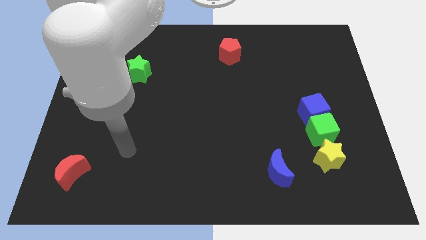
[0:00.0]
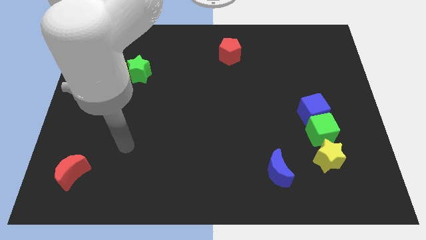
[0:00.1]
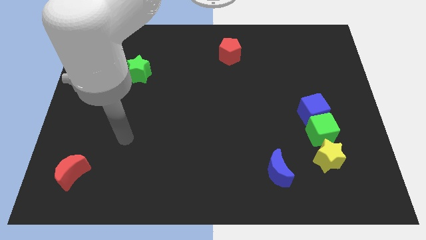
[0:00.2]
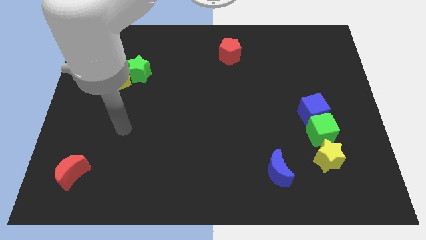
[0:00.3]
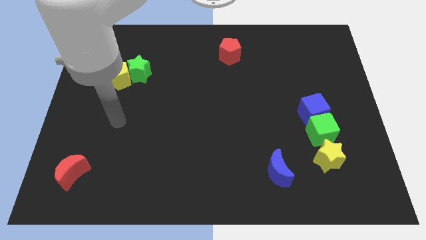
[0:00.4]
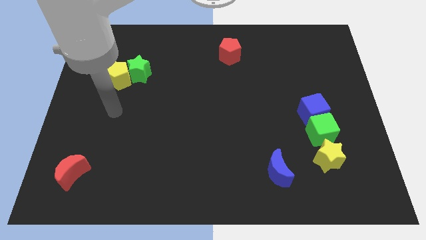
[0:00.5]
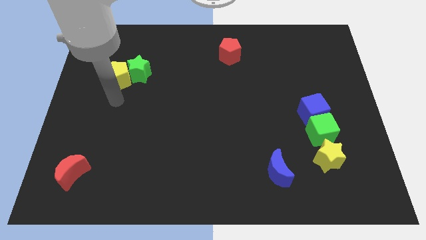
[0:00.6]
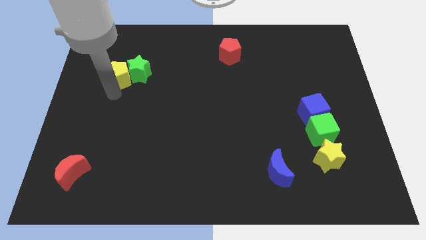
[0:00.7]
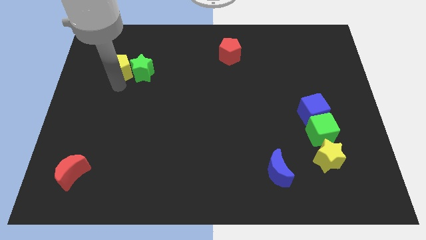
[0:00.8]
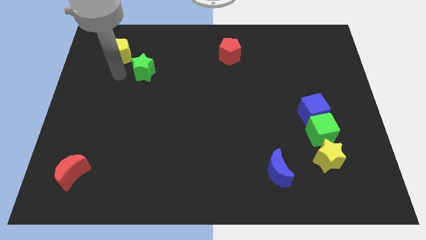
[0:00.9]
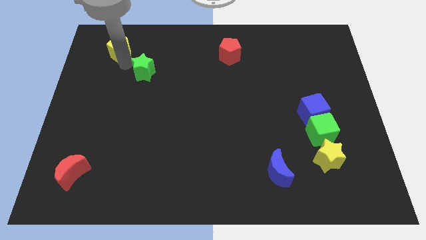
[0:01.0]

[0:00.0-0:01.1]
separate the green star from the yellow pentagon

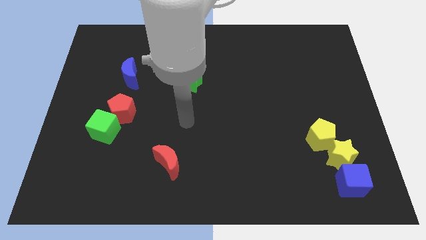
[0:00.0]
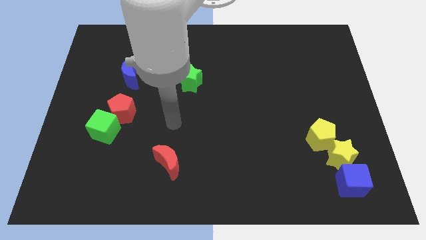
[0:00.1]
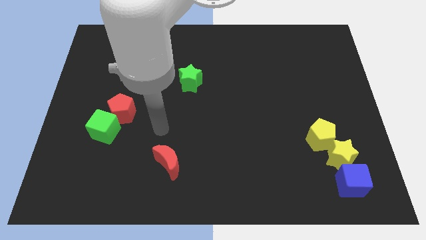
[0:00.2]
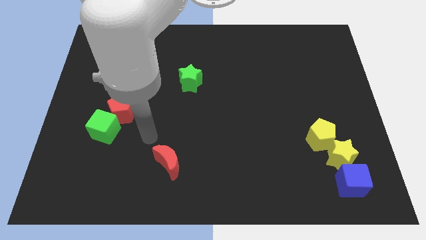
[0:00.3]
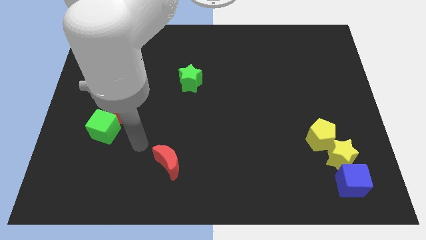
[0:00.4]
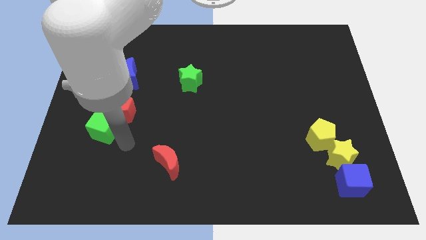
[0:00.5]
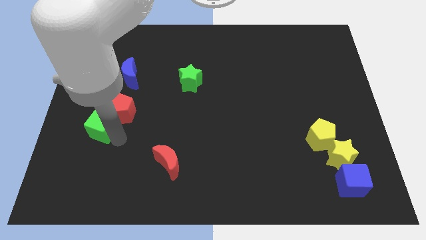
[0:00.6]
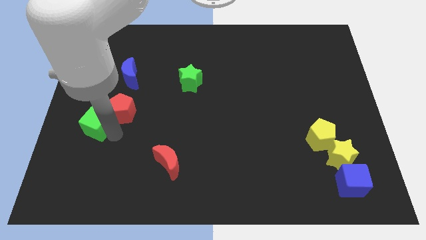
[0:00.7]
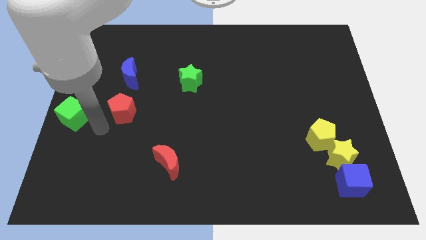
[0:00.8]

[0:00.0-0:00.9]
separate the red pentagon from the green cube

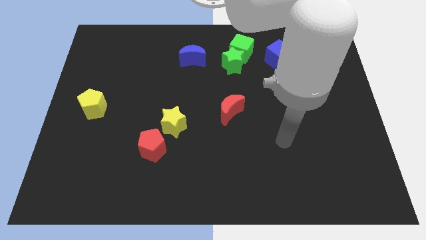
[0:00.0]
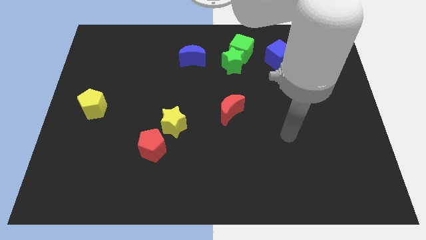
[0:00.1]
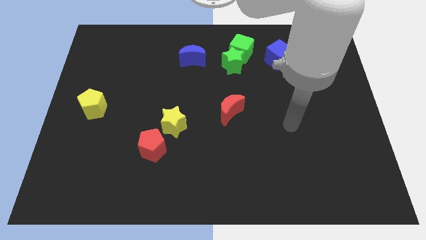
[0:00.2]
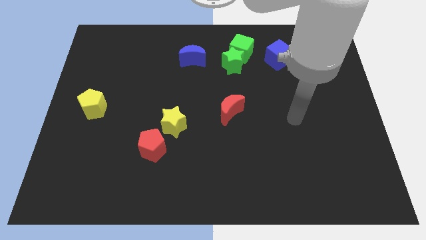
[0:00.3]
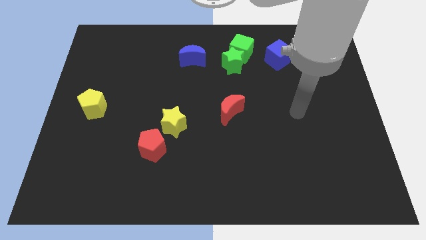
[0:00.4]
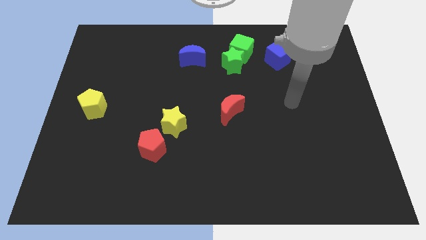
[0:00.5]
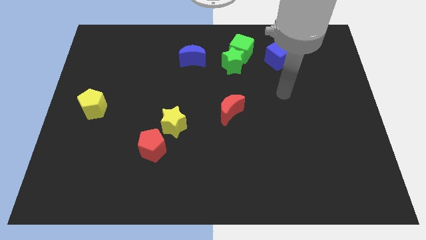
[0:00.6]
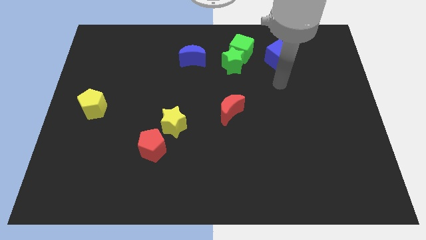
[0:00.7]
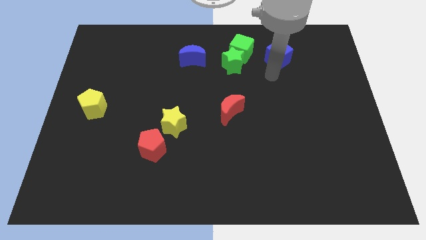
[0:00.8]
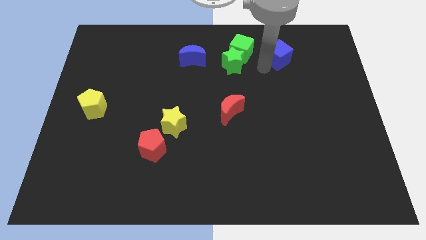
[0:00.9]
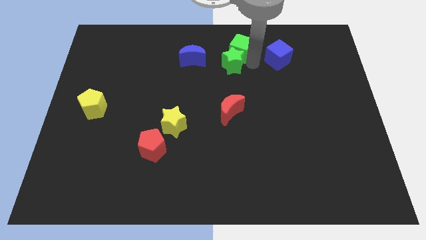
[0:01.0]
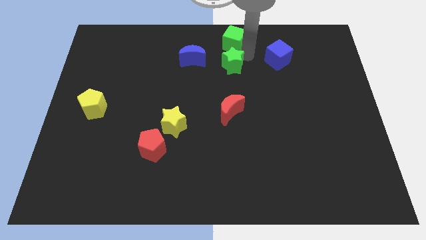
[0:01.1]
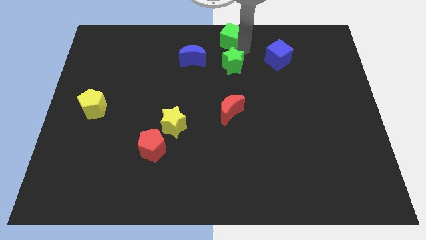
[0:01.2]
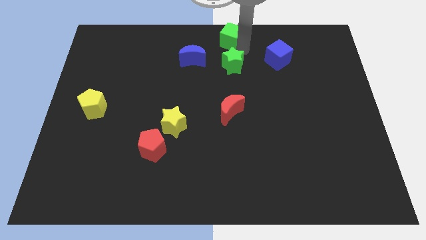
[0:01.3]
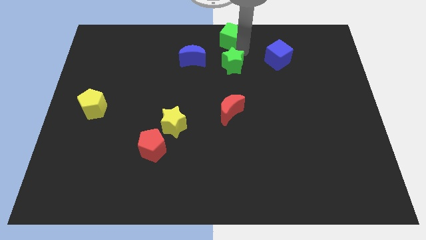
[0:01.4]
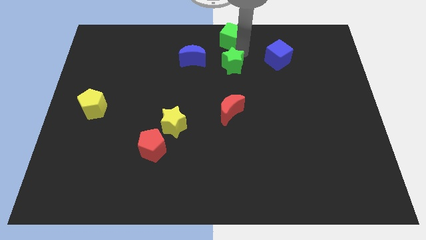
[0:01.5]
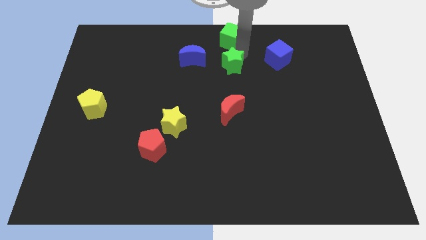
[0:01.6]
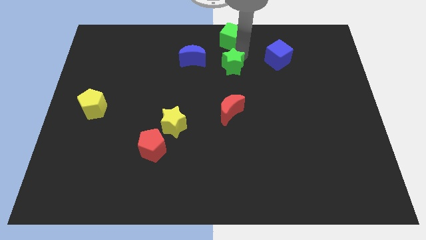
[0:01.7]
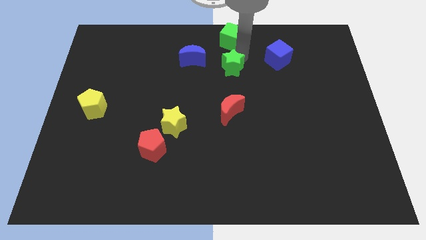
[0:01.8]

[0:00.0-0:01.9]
separate the green star from the green cube

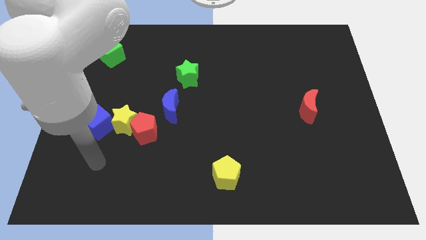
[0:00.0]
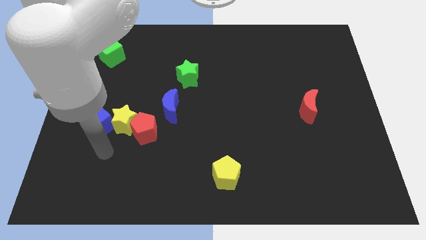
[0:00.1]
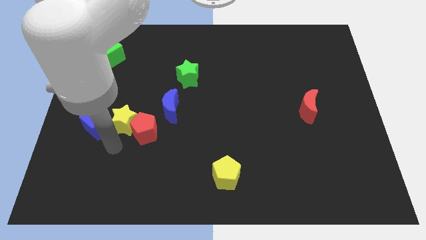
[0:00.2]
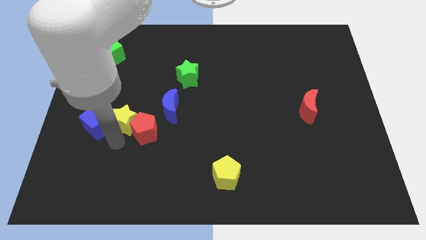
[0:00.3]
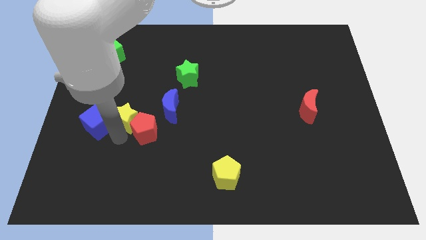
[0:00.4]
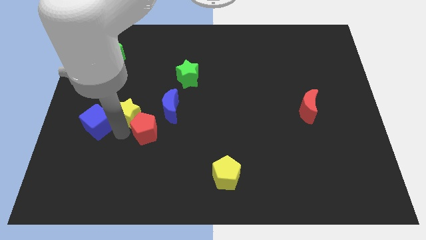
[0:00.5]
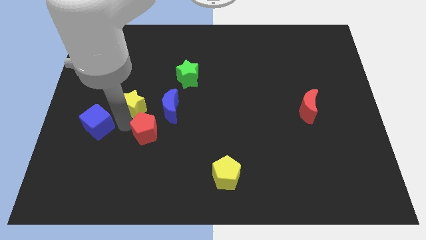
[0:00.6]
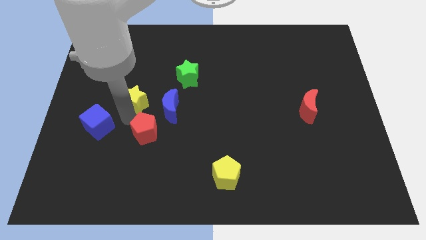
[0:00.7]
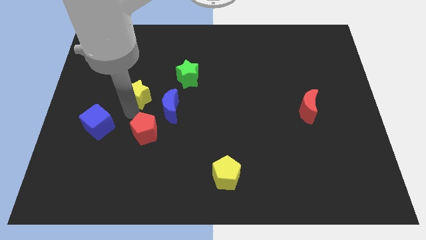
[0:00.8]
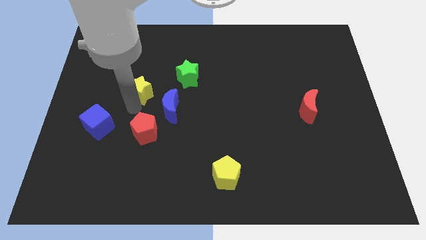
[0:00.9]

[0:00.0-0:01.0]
move the yellow star away from the red pentagon and blue cube

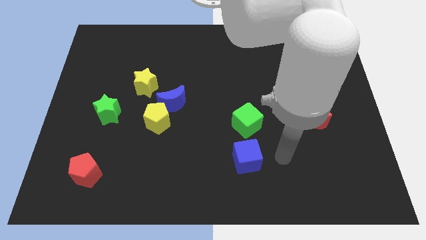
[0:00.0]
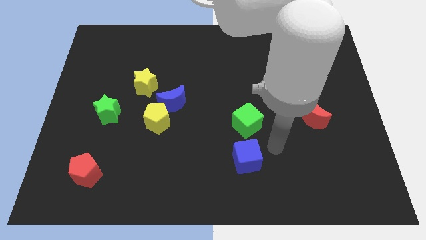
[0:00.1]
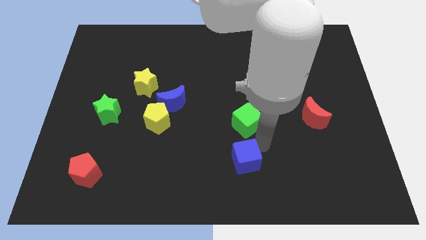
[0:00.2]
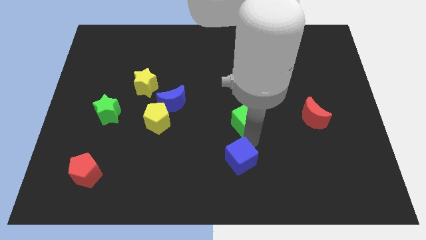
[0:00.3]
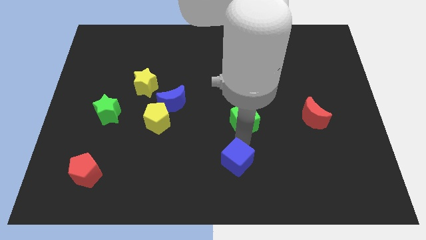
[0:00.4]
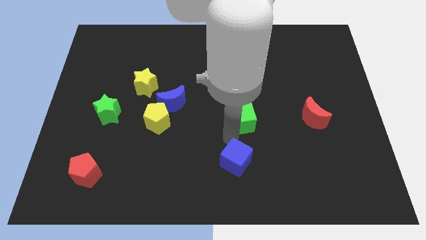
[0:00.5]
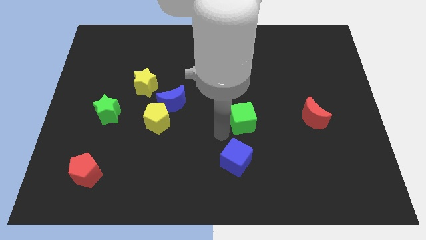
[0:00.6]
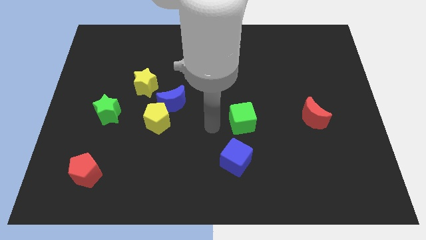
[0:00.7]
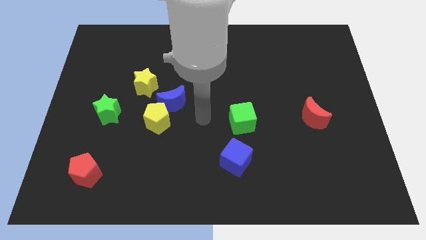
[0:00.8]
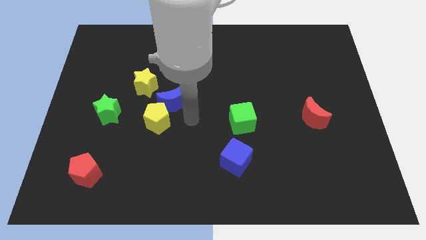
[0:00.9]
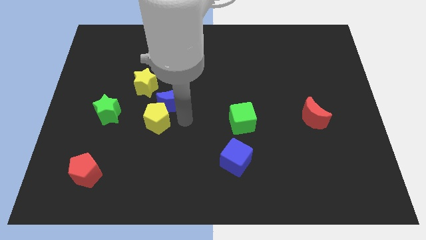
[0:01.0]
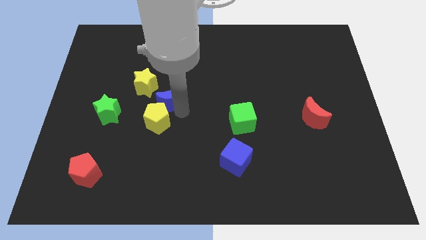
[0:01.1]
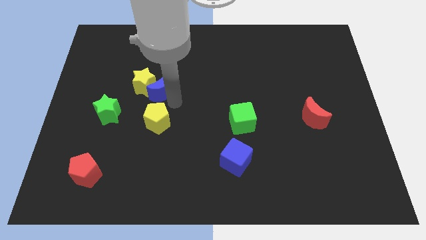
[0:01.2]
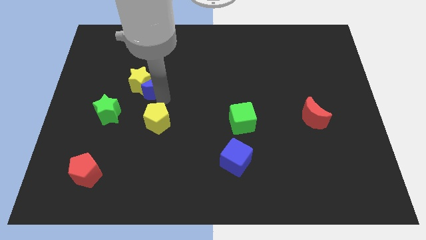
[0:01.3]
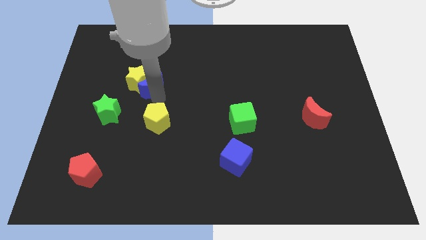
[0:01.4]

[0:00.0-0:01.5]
move the yellow pentagon away from the blue moon

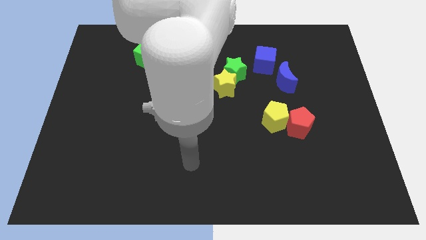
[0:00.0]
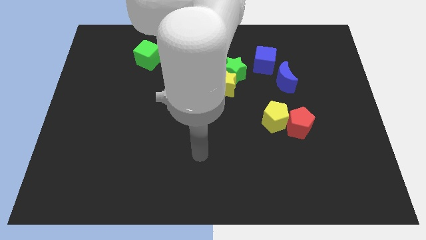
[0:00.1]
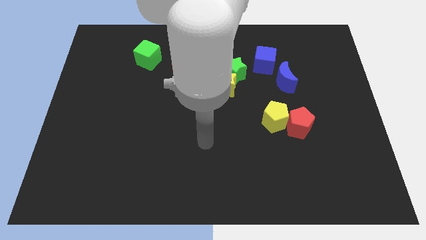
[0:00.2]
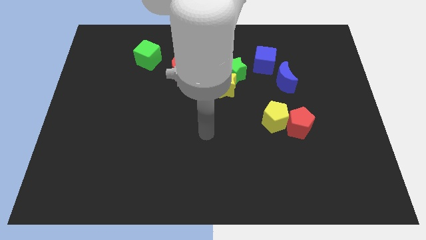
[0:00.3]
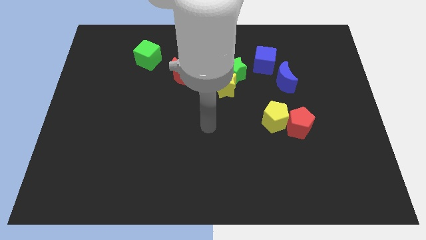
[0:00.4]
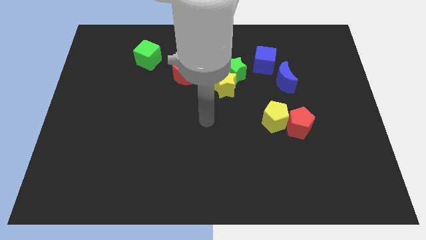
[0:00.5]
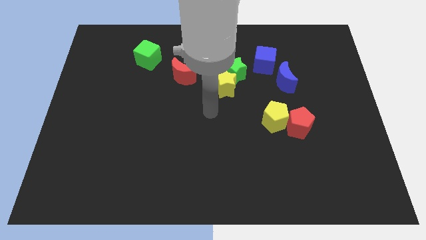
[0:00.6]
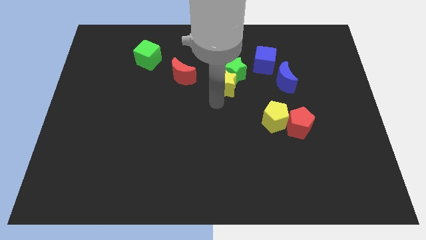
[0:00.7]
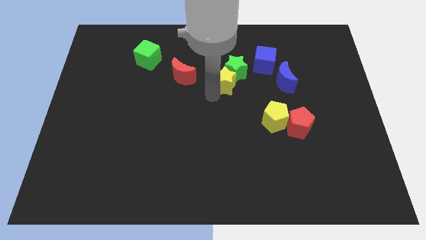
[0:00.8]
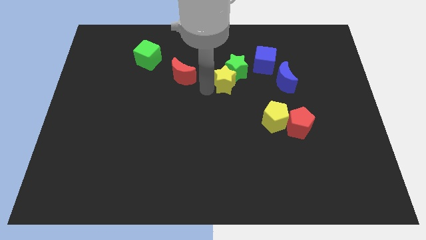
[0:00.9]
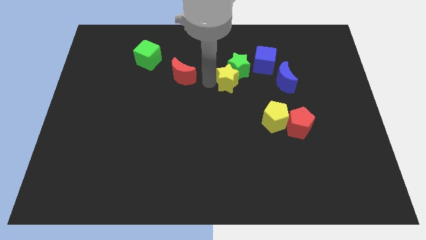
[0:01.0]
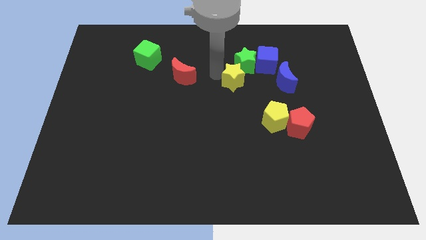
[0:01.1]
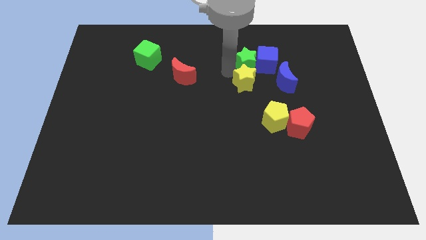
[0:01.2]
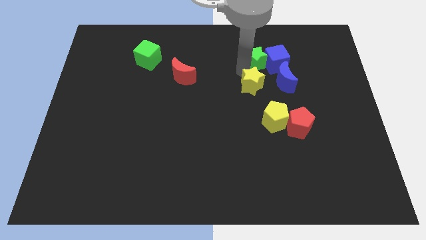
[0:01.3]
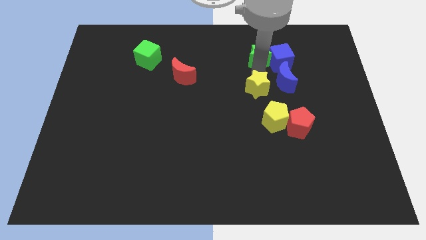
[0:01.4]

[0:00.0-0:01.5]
move the yellow star away from the green star

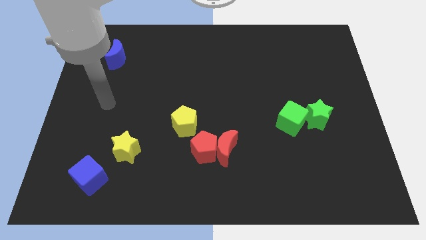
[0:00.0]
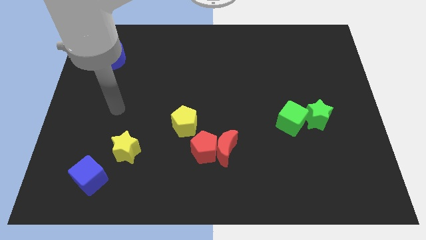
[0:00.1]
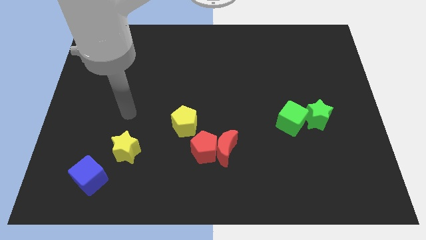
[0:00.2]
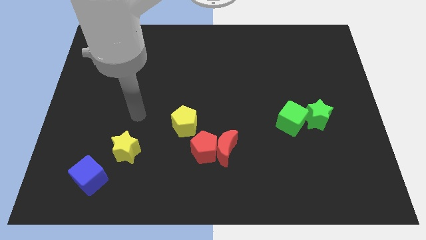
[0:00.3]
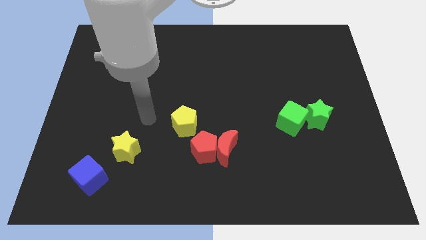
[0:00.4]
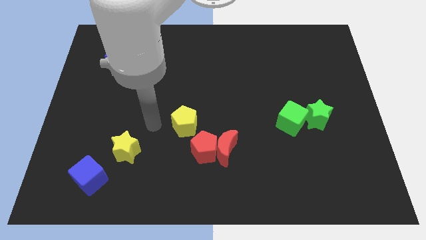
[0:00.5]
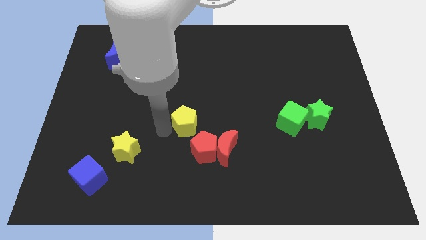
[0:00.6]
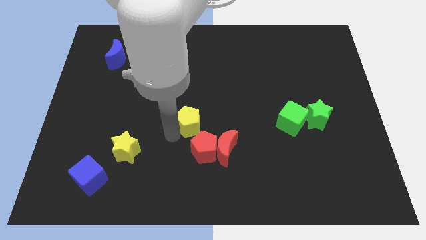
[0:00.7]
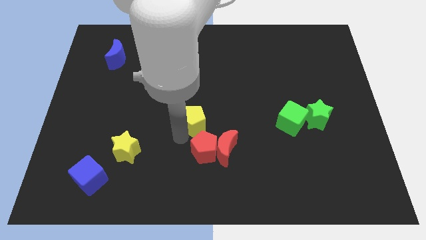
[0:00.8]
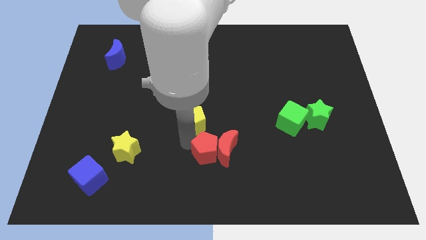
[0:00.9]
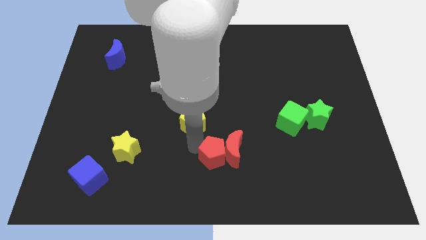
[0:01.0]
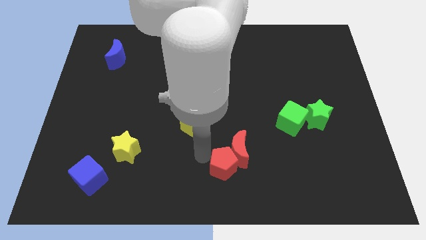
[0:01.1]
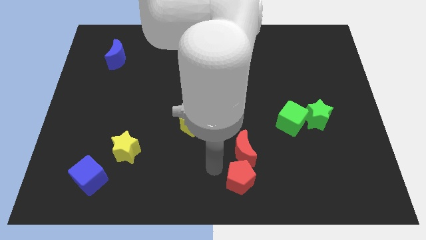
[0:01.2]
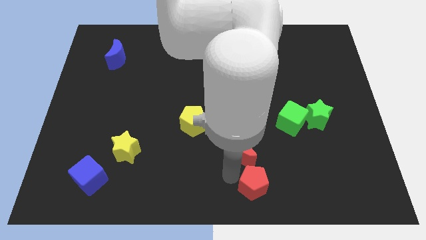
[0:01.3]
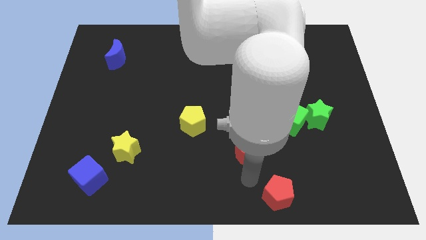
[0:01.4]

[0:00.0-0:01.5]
separate the red moon from the red pentagon
